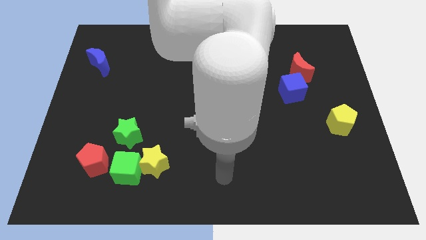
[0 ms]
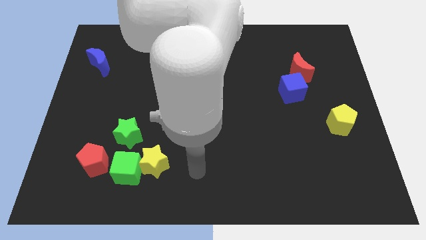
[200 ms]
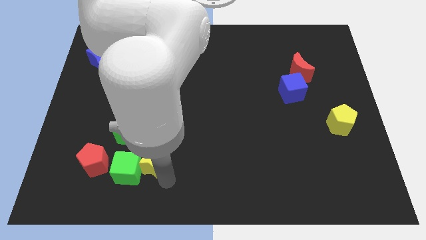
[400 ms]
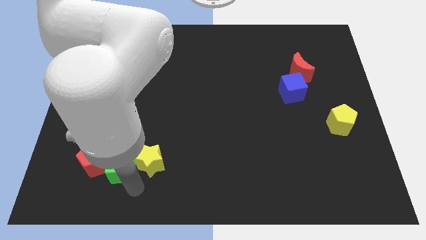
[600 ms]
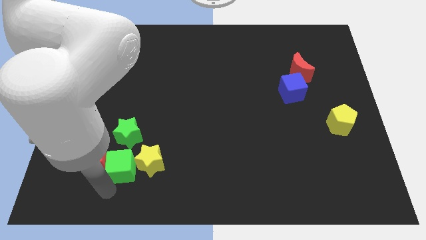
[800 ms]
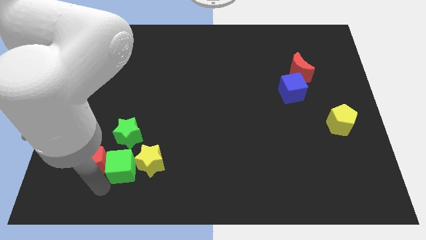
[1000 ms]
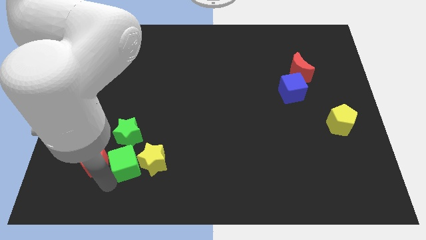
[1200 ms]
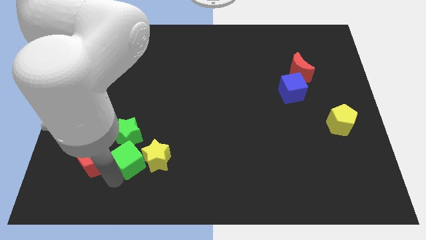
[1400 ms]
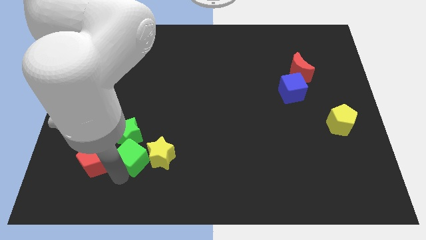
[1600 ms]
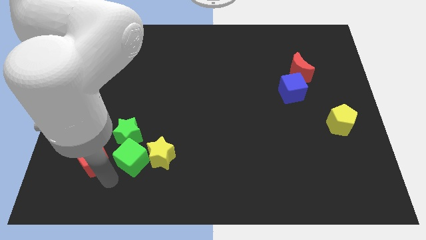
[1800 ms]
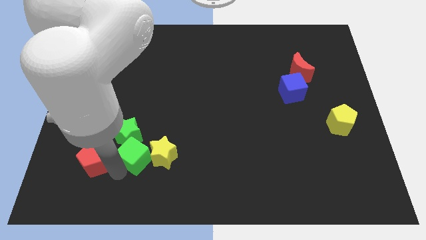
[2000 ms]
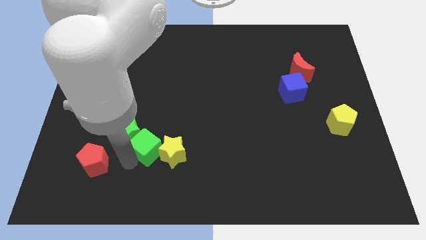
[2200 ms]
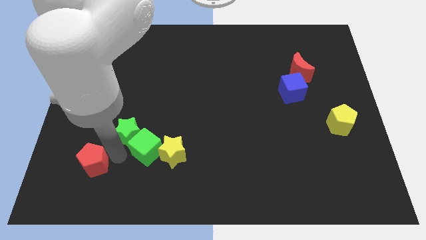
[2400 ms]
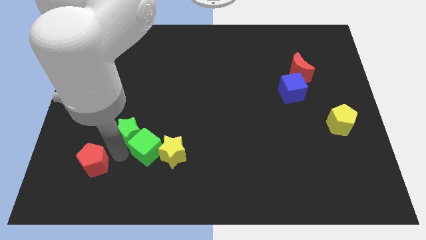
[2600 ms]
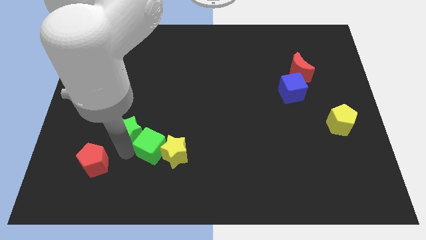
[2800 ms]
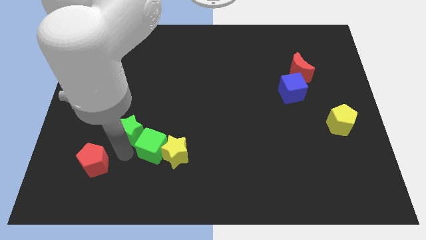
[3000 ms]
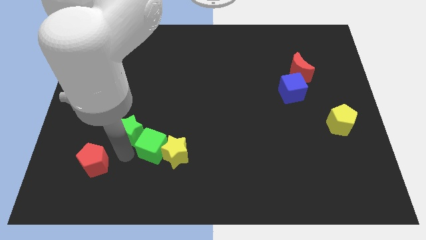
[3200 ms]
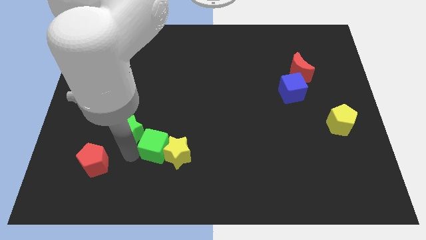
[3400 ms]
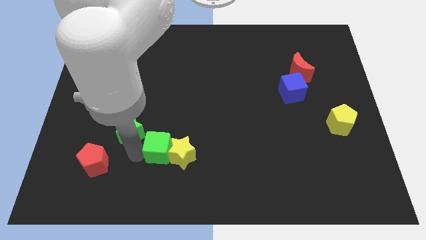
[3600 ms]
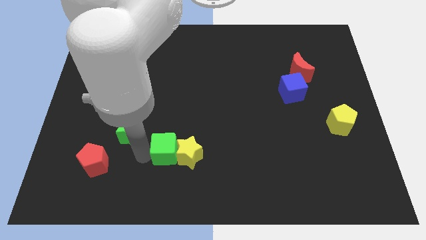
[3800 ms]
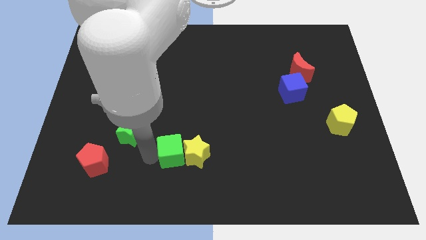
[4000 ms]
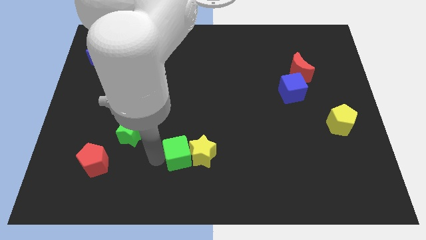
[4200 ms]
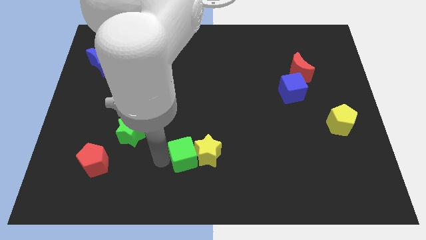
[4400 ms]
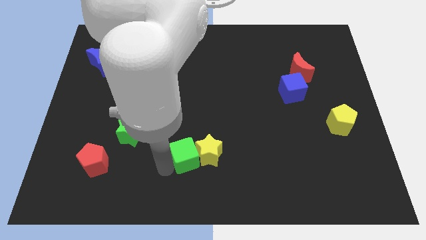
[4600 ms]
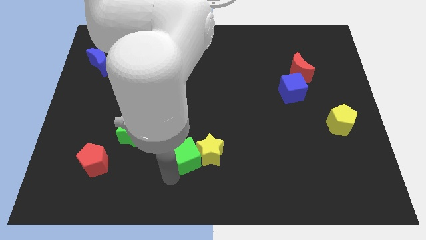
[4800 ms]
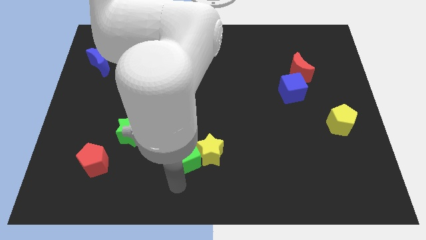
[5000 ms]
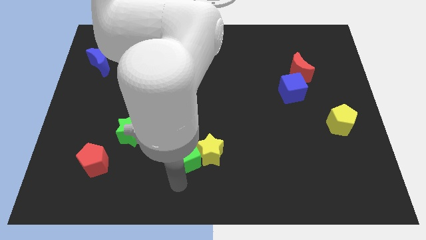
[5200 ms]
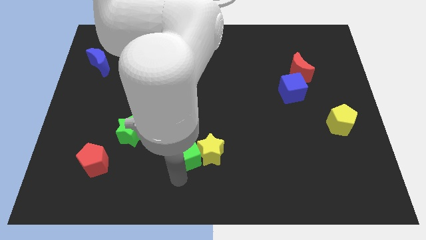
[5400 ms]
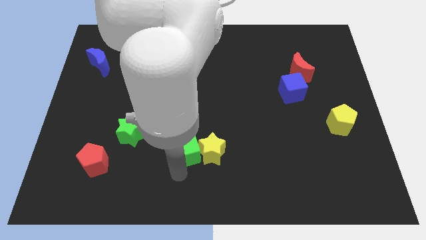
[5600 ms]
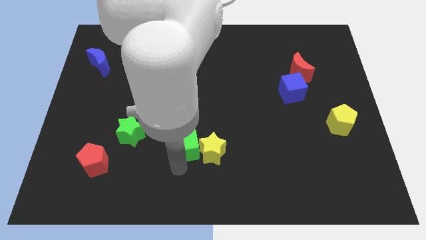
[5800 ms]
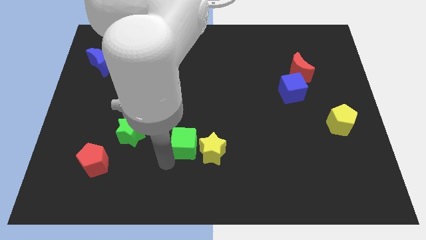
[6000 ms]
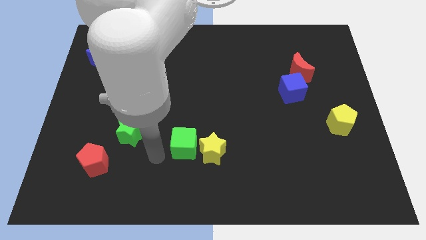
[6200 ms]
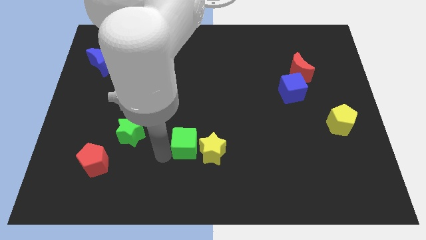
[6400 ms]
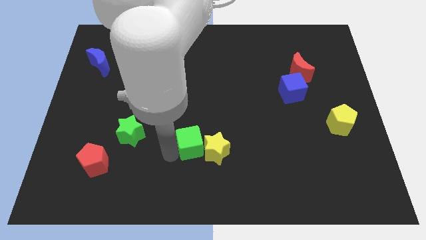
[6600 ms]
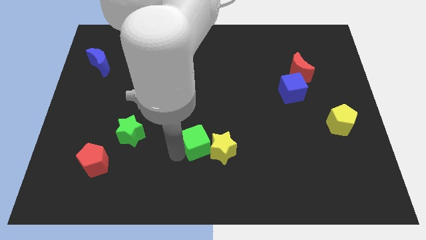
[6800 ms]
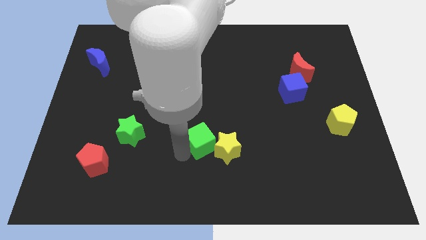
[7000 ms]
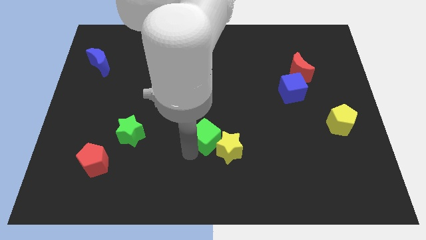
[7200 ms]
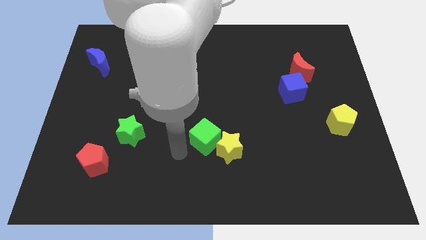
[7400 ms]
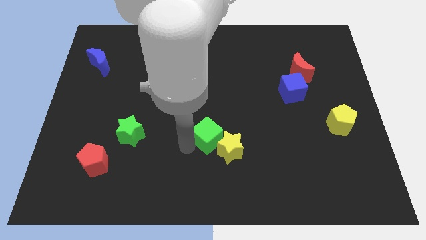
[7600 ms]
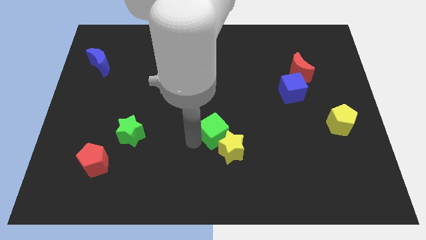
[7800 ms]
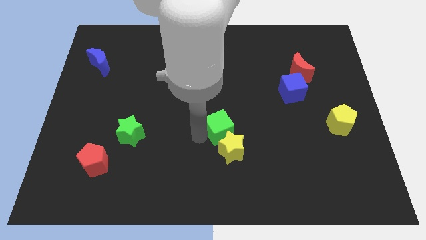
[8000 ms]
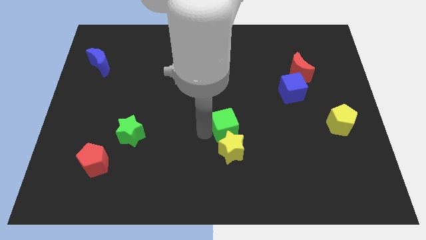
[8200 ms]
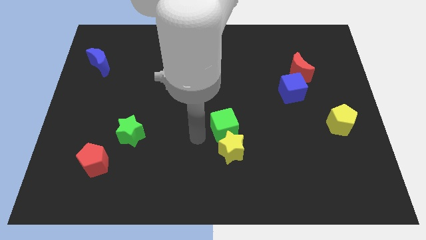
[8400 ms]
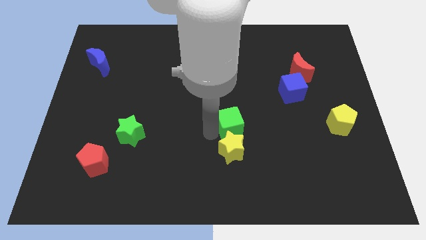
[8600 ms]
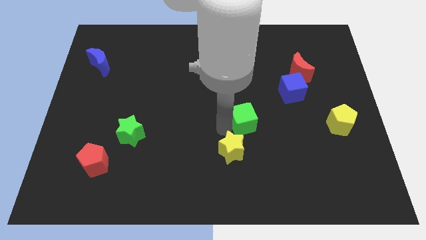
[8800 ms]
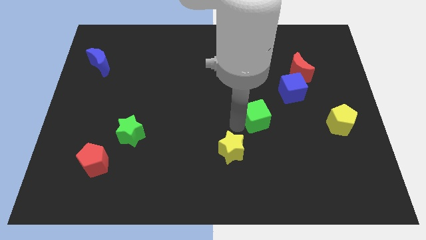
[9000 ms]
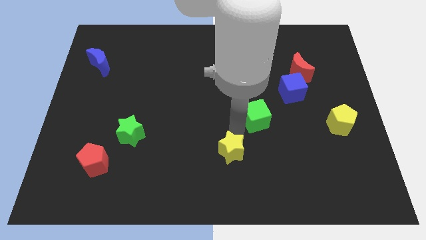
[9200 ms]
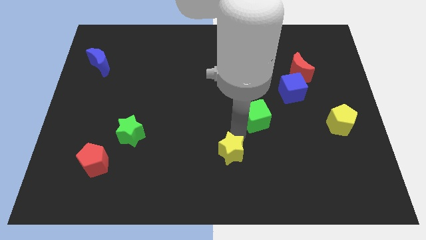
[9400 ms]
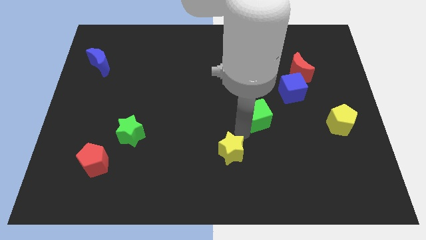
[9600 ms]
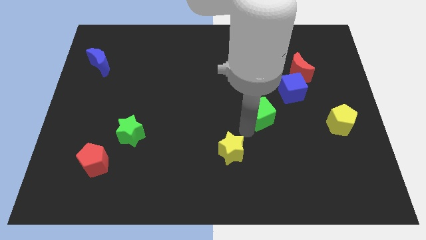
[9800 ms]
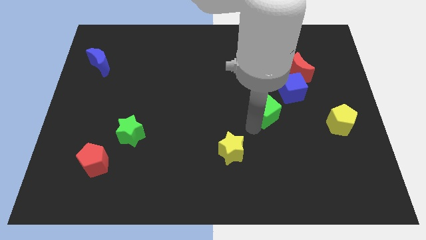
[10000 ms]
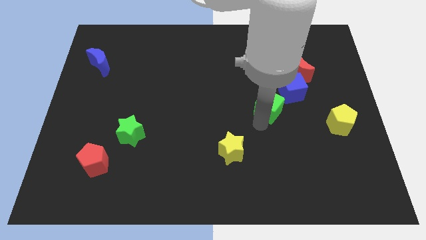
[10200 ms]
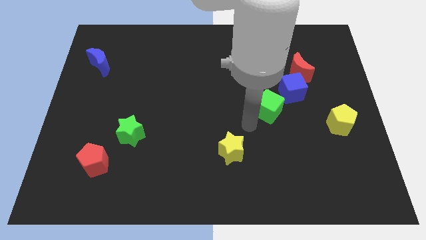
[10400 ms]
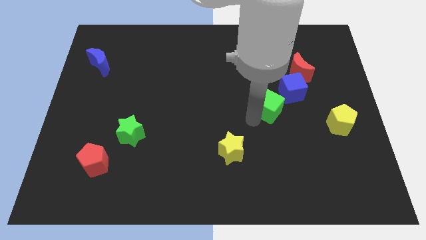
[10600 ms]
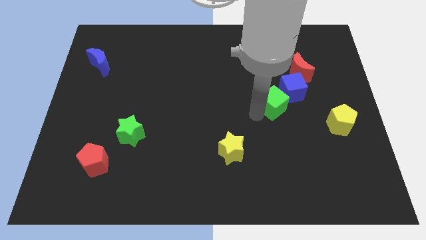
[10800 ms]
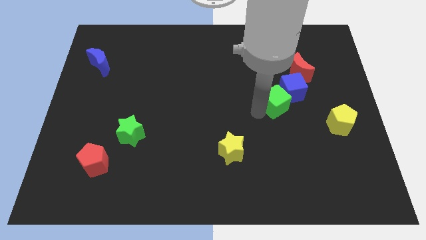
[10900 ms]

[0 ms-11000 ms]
move the green cube close to the blue cube

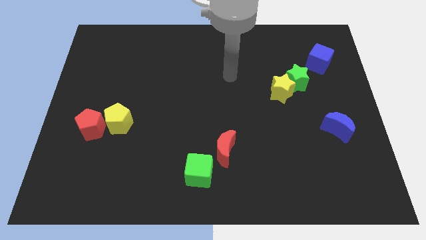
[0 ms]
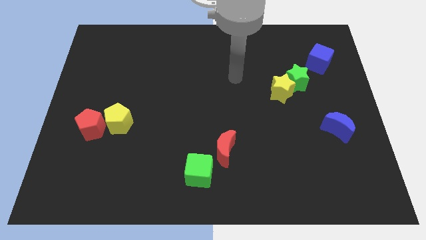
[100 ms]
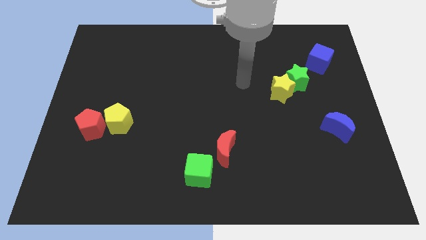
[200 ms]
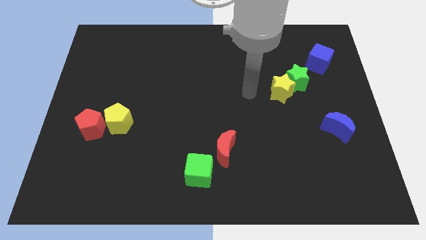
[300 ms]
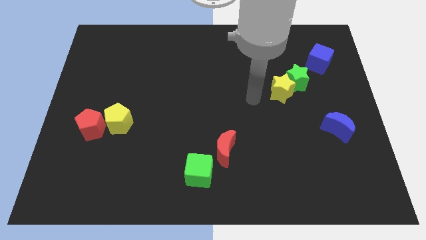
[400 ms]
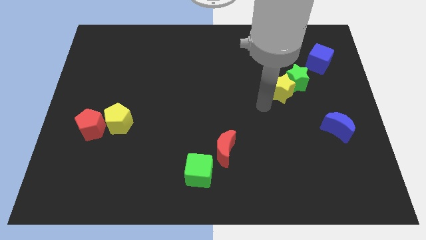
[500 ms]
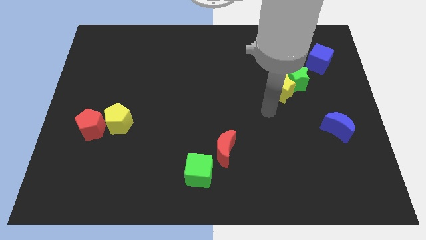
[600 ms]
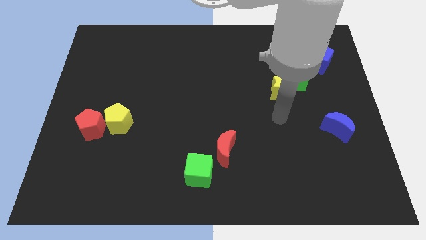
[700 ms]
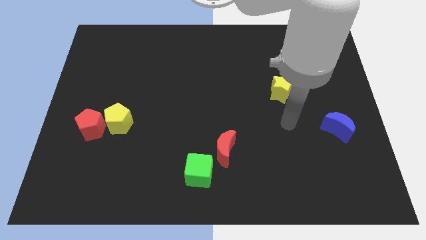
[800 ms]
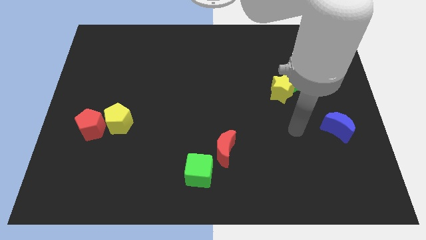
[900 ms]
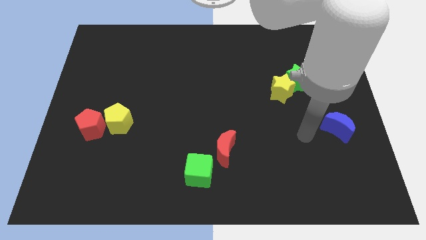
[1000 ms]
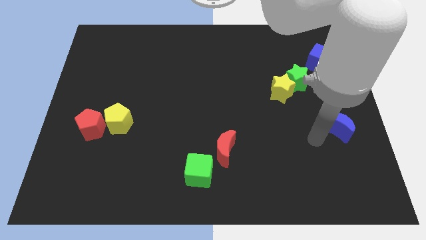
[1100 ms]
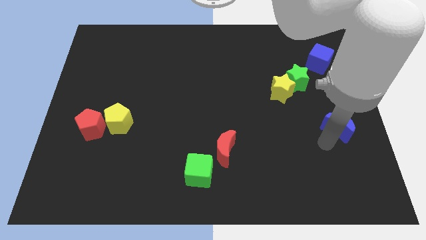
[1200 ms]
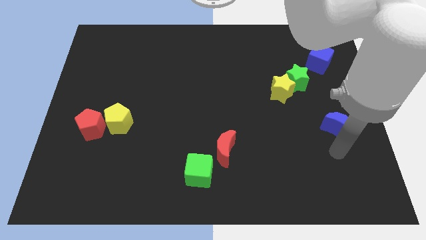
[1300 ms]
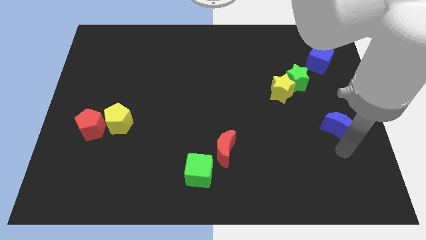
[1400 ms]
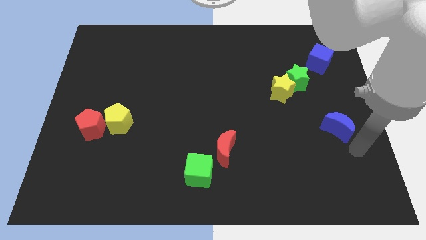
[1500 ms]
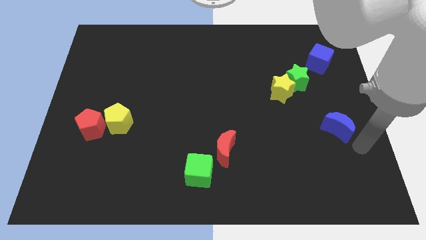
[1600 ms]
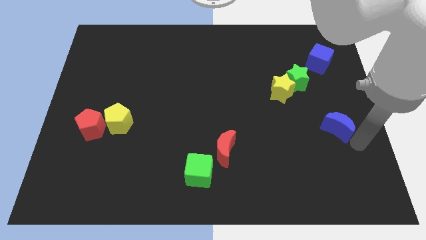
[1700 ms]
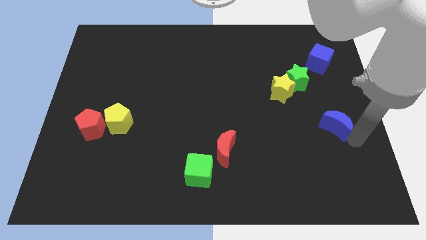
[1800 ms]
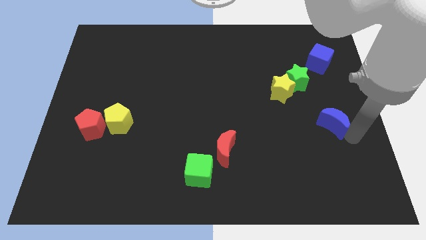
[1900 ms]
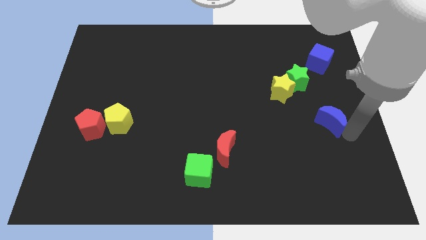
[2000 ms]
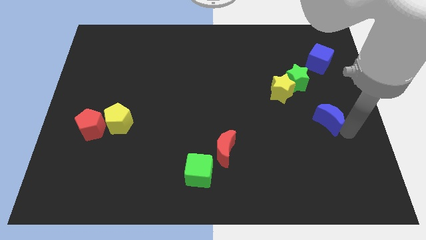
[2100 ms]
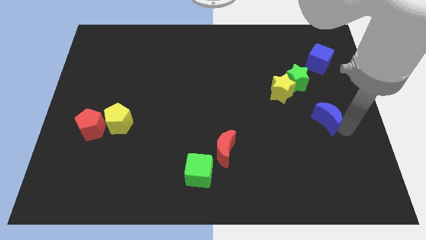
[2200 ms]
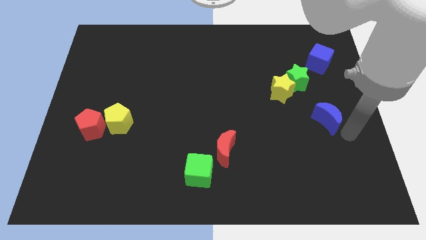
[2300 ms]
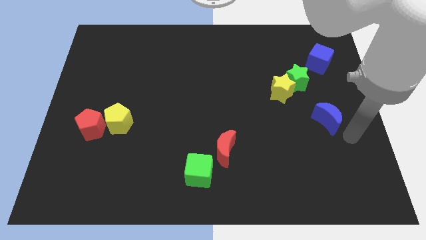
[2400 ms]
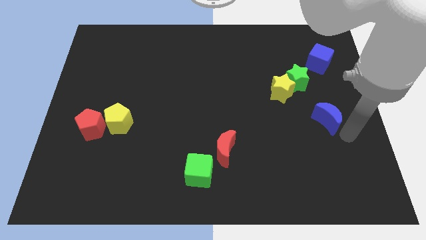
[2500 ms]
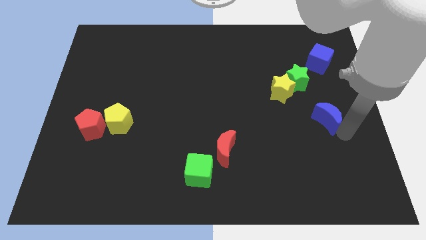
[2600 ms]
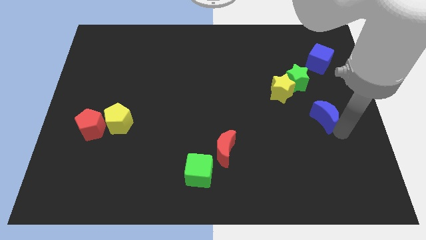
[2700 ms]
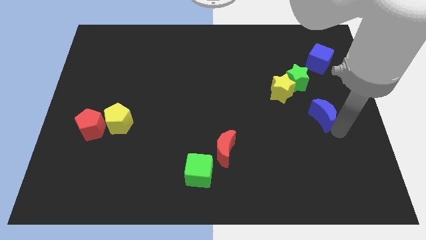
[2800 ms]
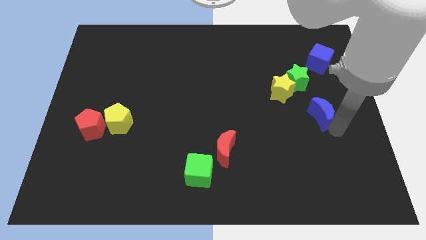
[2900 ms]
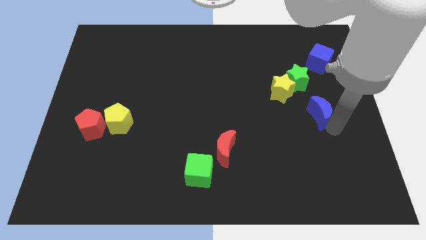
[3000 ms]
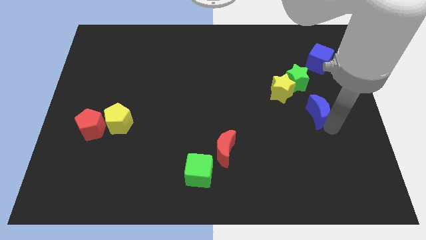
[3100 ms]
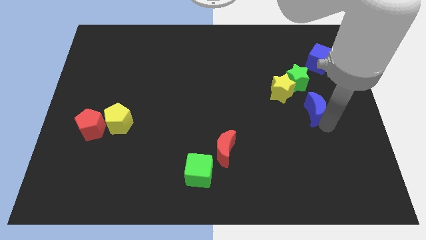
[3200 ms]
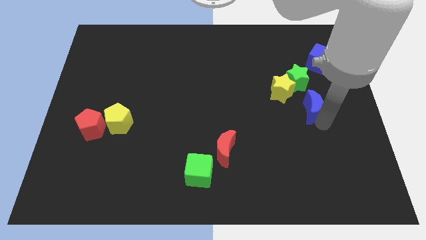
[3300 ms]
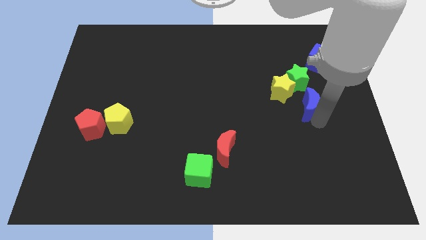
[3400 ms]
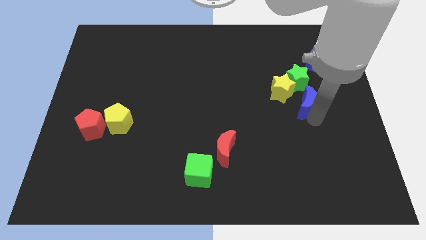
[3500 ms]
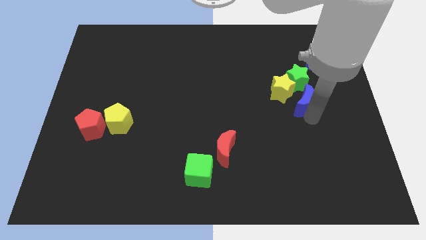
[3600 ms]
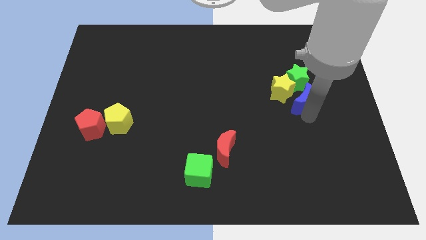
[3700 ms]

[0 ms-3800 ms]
put the blue moon to the yellow star
